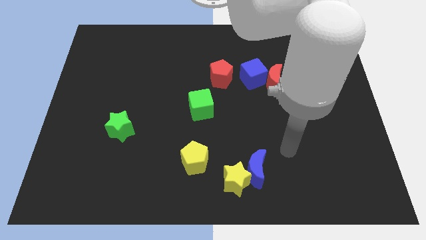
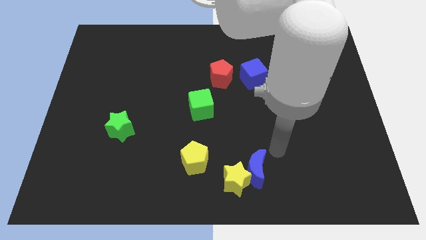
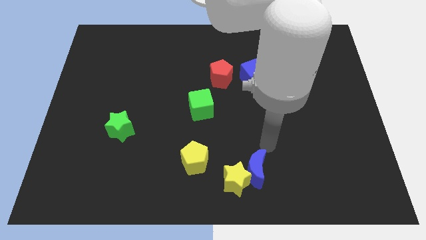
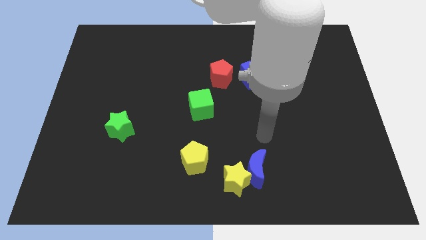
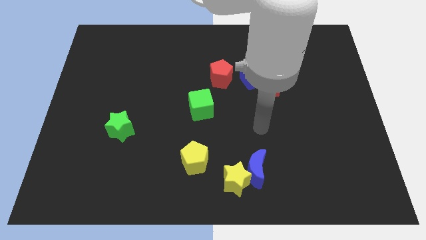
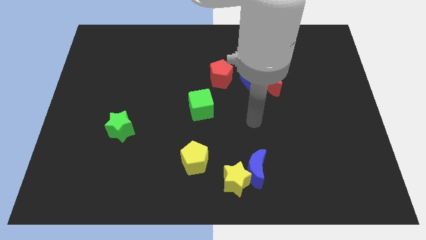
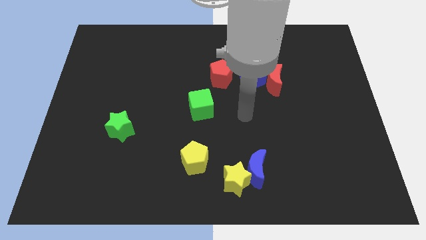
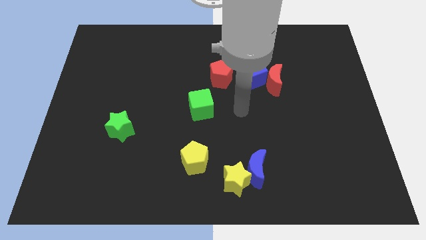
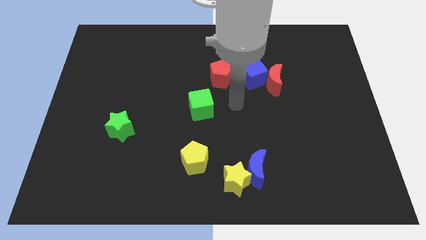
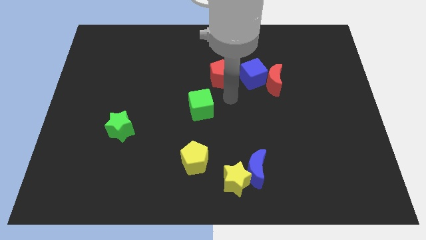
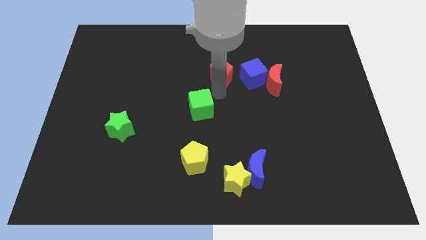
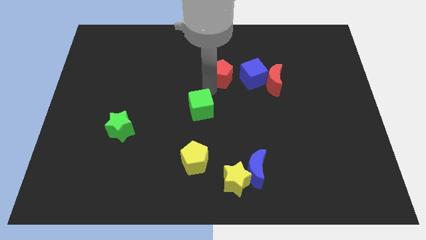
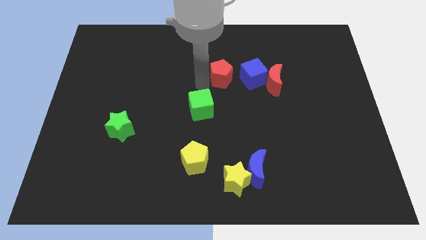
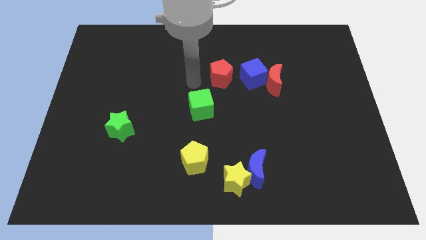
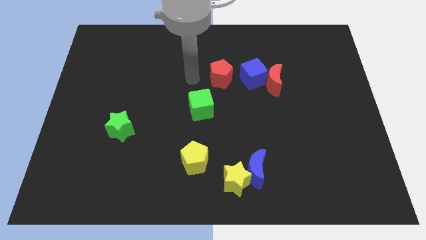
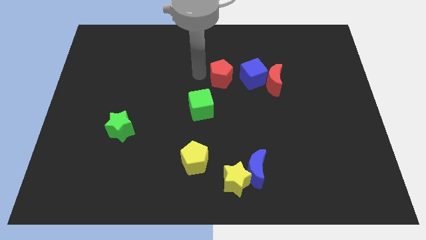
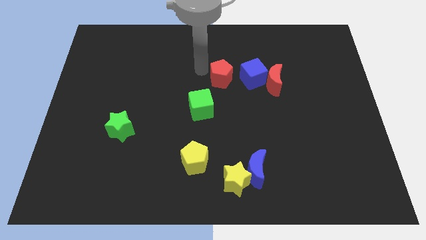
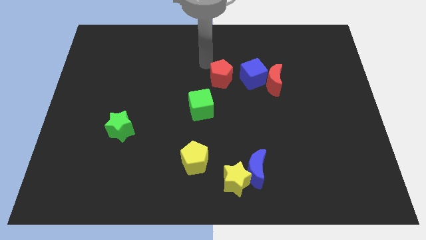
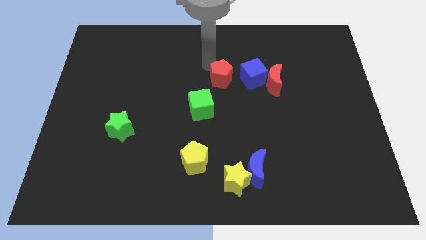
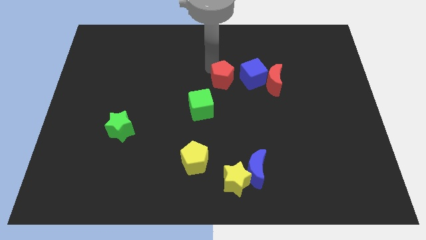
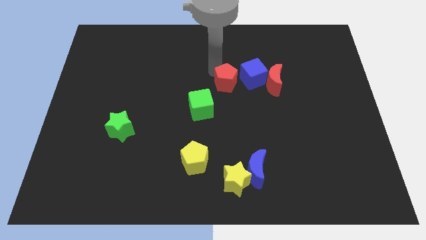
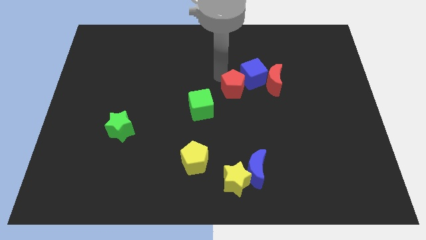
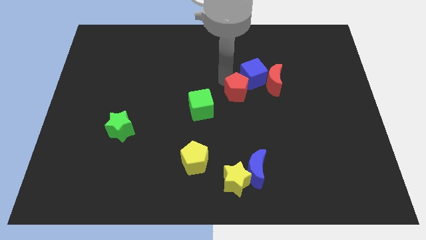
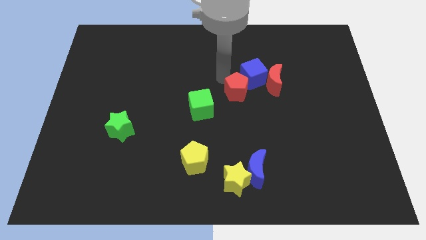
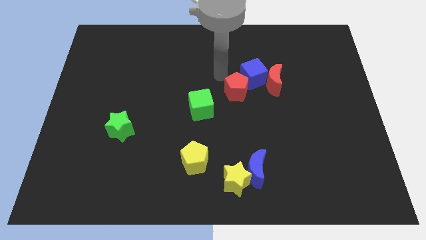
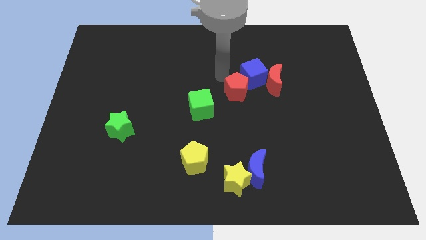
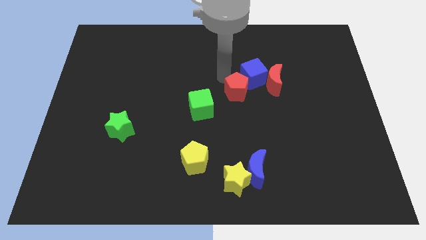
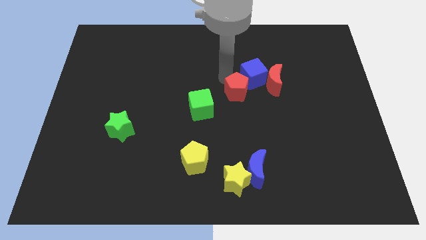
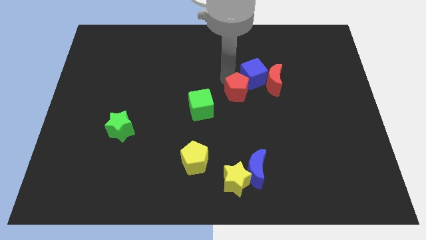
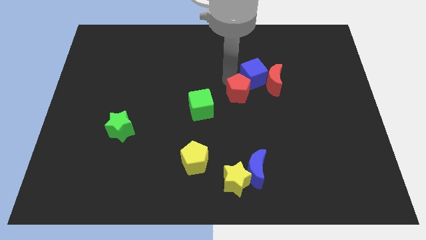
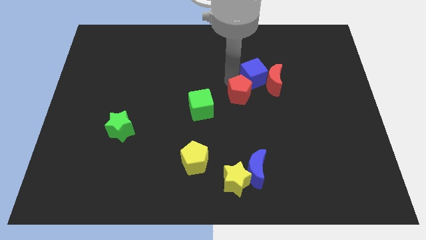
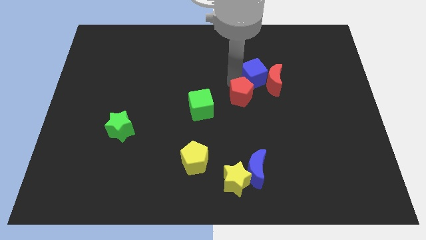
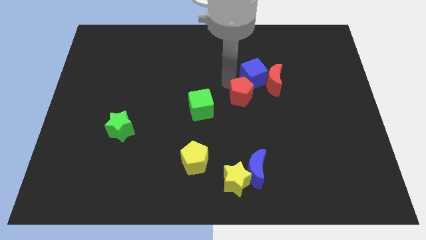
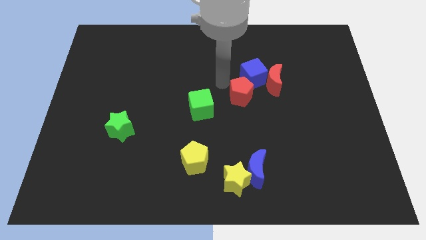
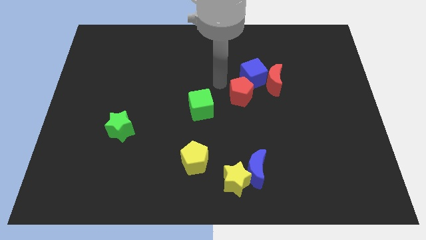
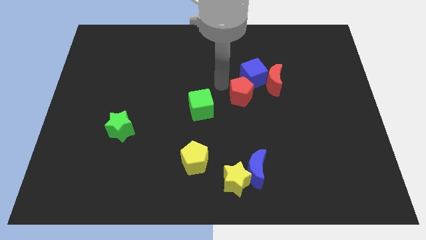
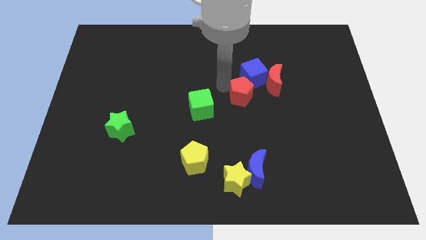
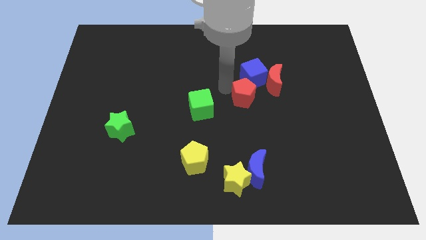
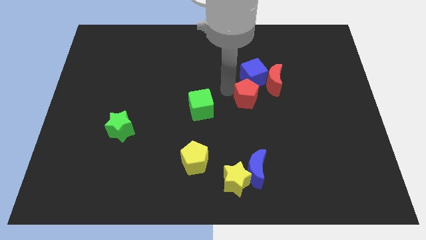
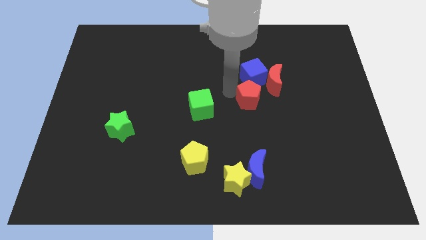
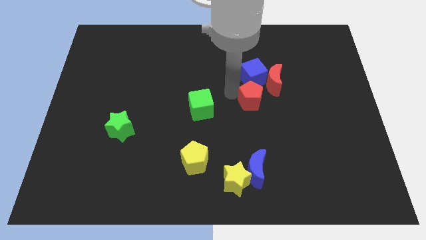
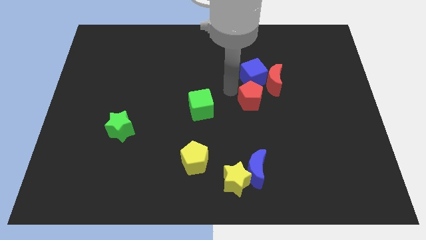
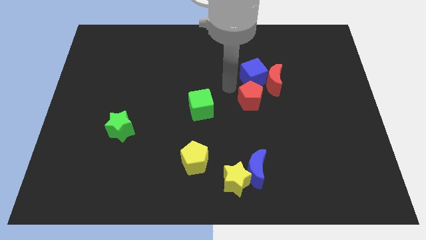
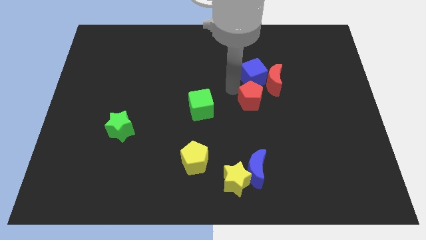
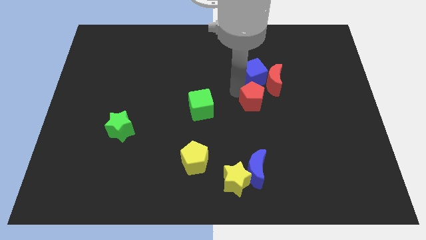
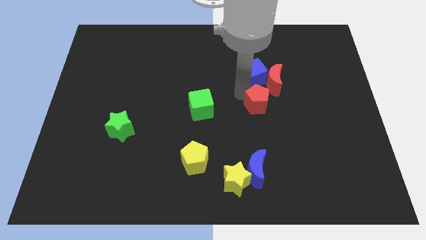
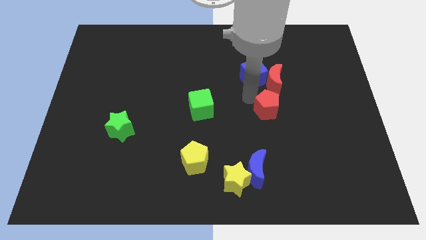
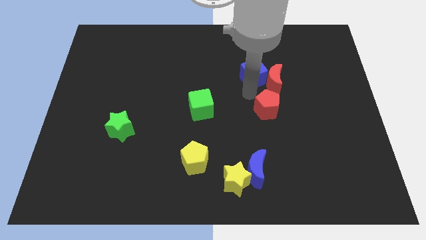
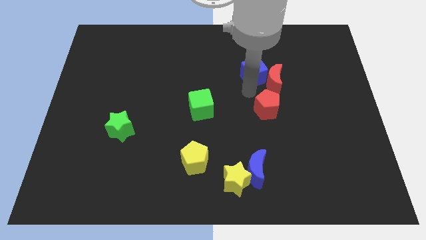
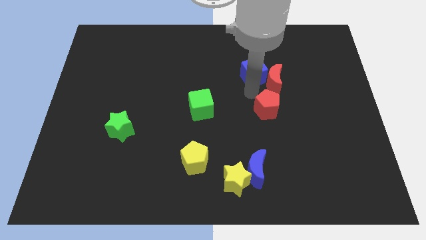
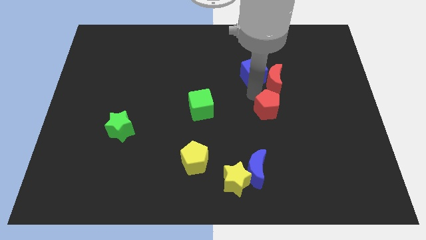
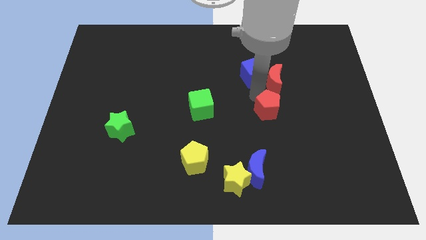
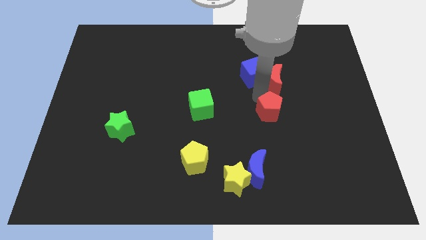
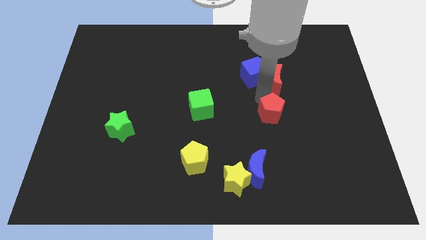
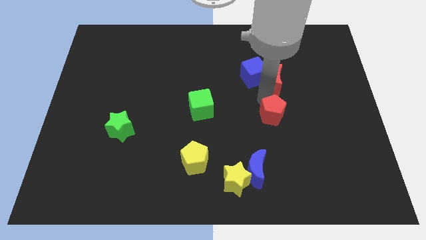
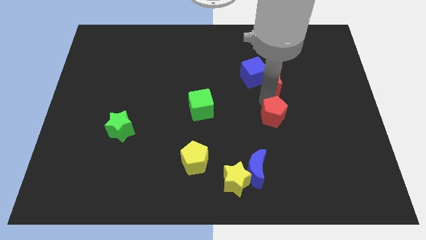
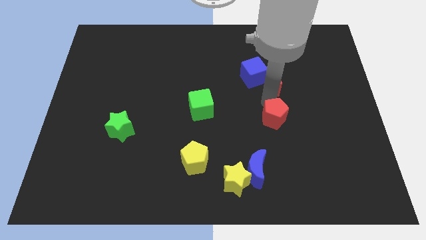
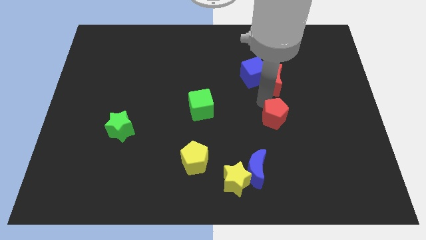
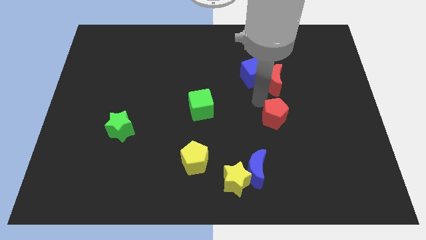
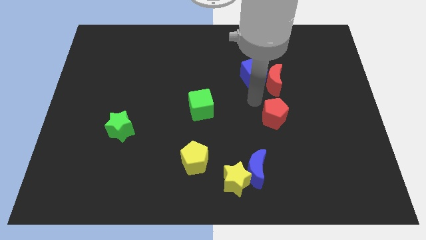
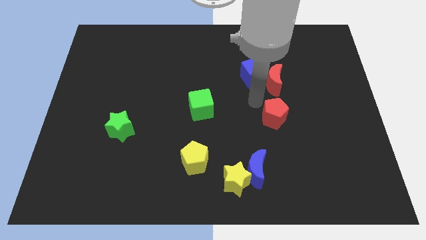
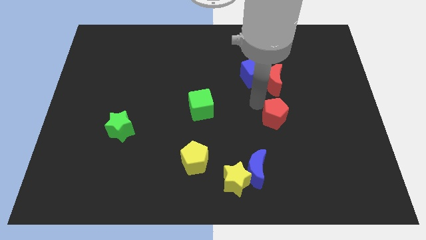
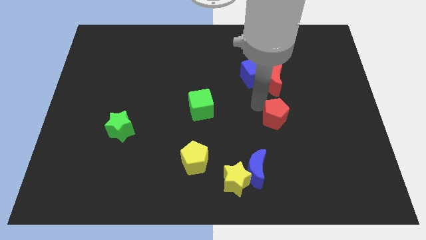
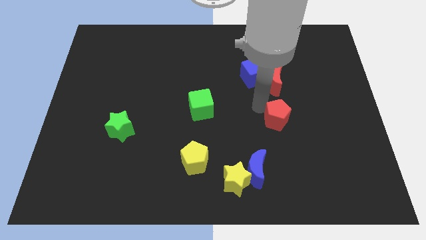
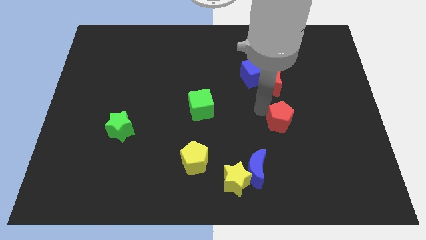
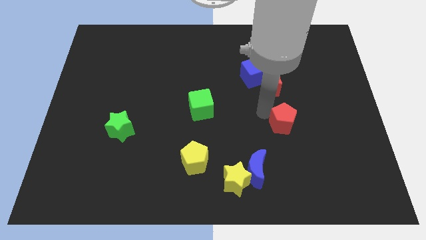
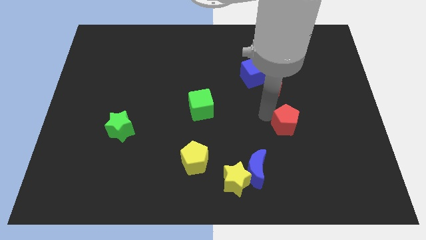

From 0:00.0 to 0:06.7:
move the red pentagon downwards and then right

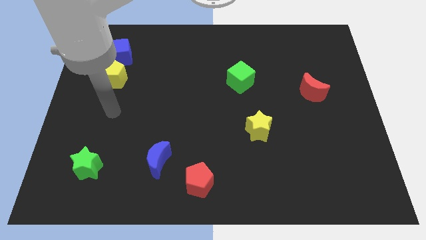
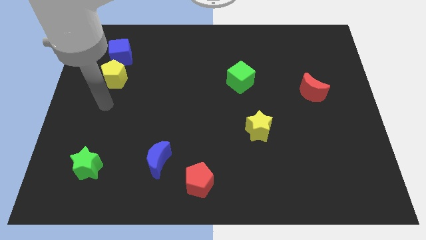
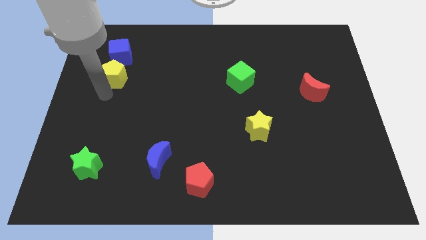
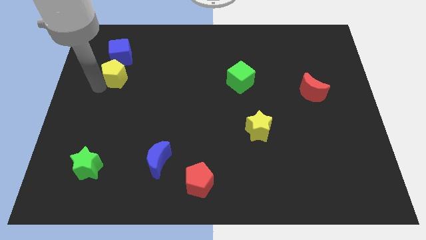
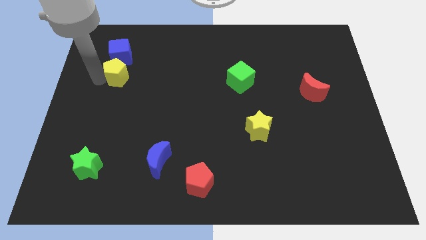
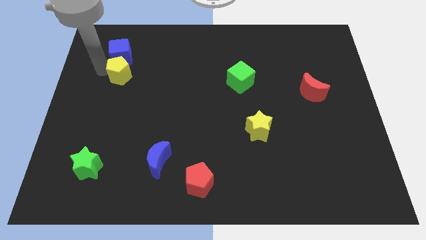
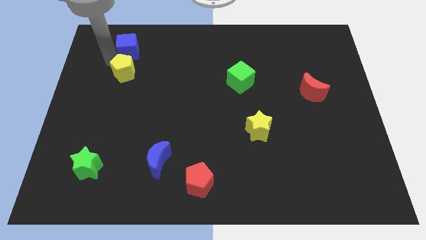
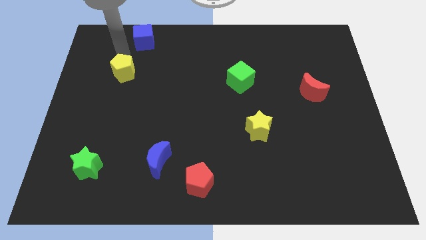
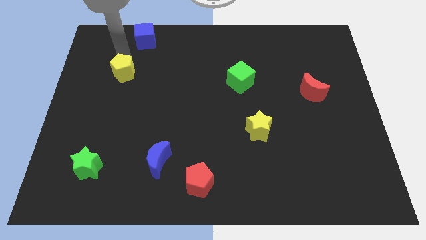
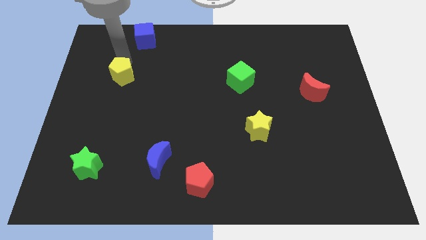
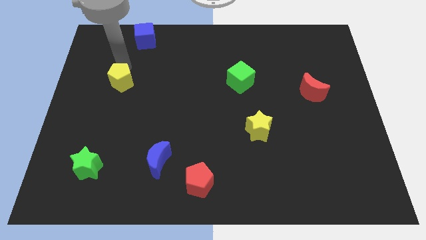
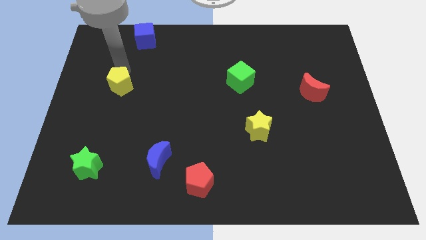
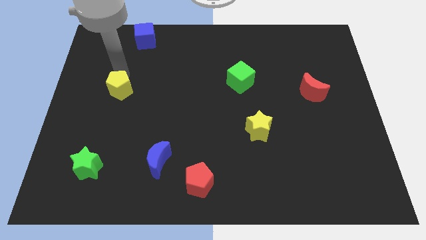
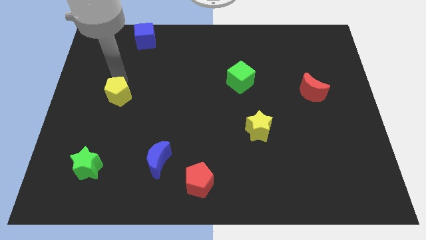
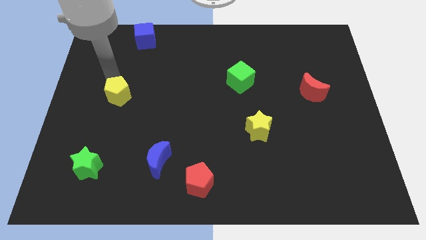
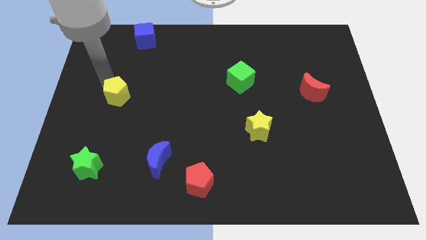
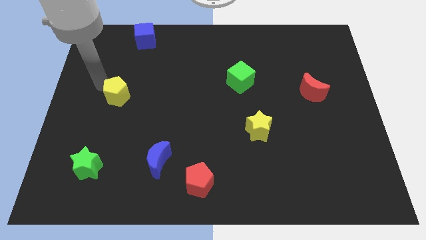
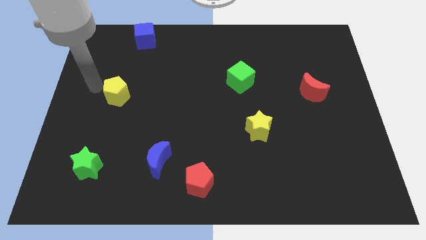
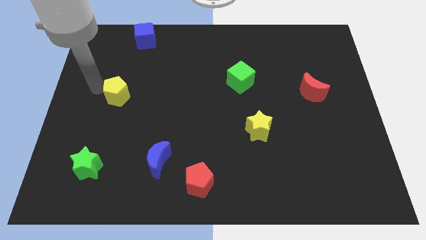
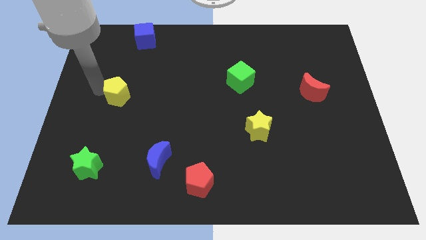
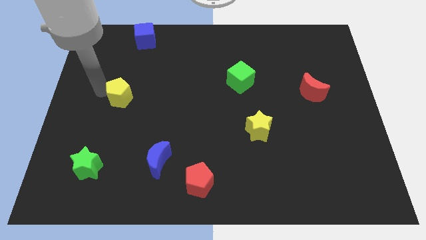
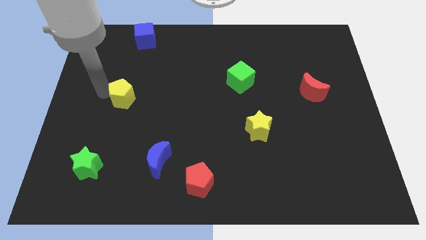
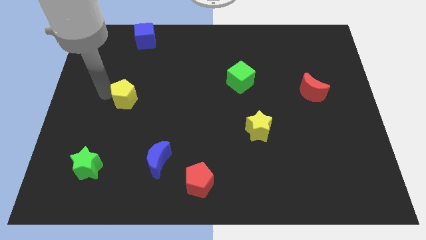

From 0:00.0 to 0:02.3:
push the yellow pentagon down and right diagonally a little
